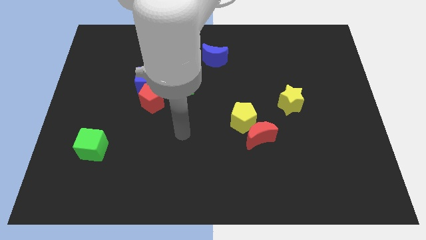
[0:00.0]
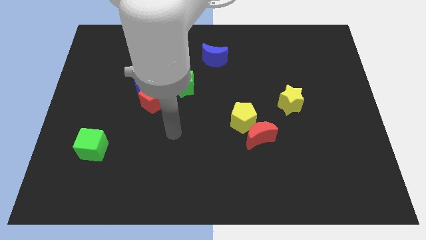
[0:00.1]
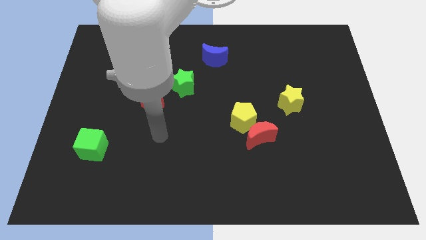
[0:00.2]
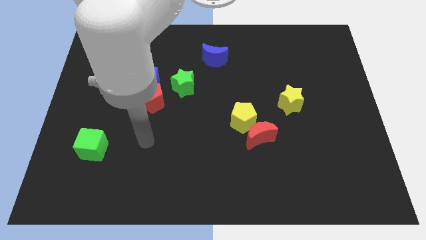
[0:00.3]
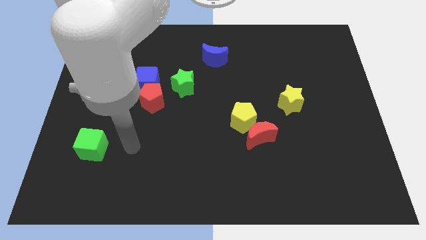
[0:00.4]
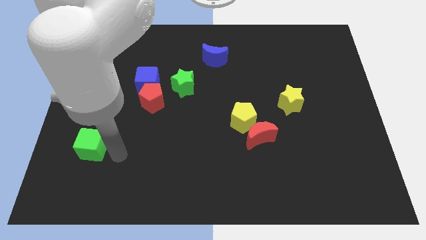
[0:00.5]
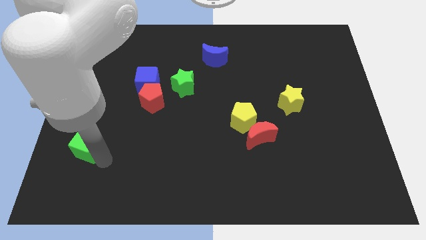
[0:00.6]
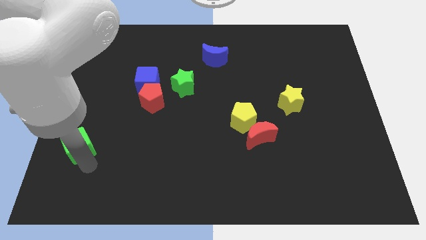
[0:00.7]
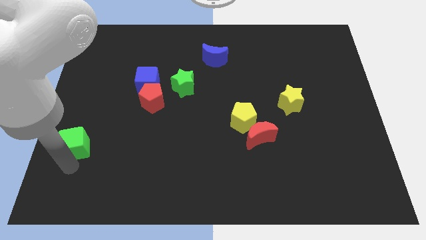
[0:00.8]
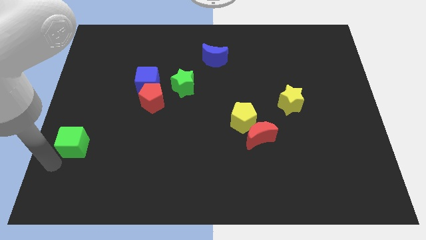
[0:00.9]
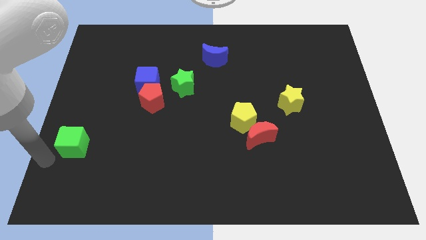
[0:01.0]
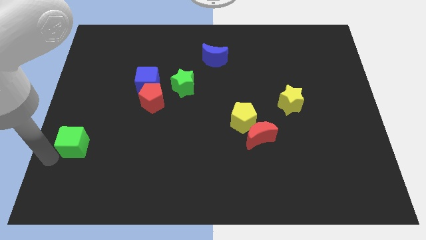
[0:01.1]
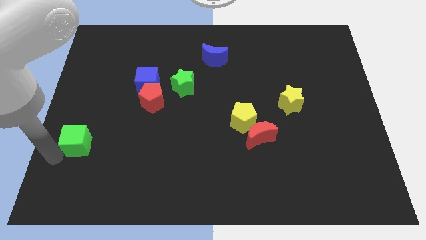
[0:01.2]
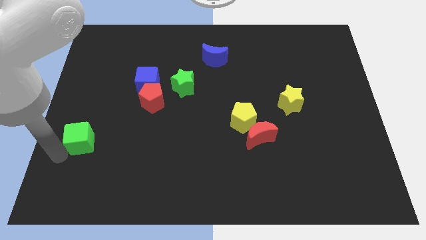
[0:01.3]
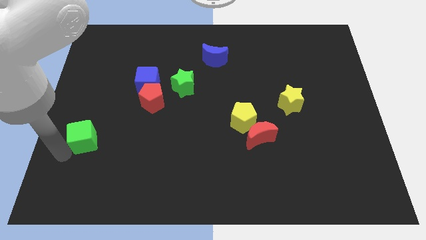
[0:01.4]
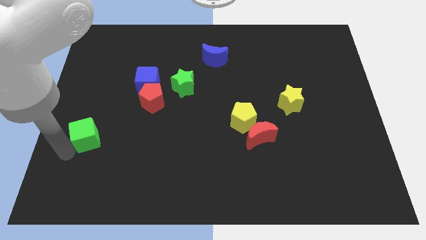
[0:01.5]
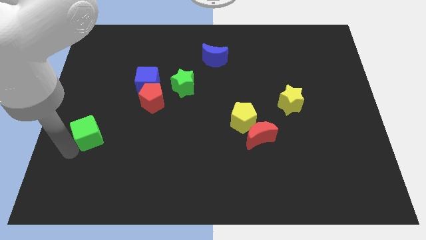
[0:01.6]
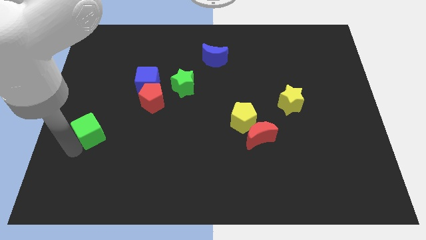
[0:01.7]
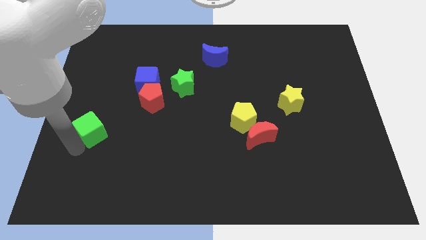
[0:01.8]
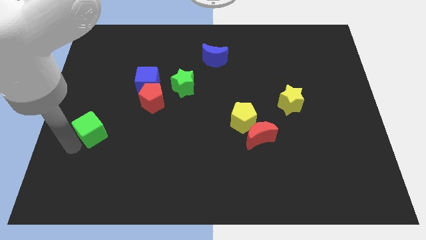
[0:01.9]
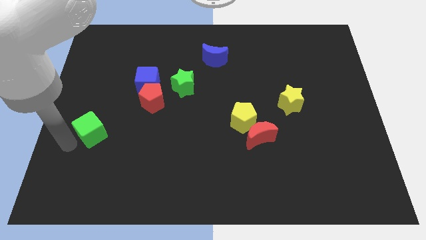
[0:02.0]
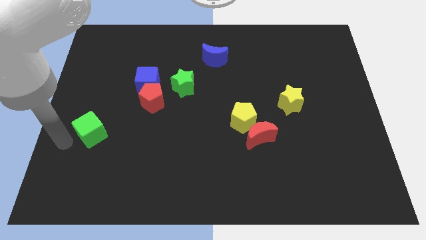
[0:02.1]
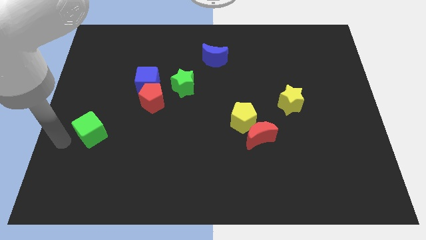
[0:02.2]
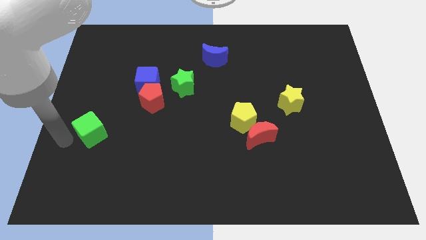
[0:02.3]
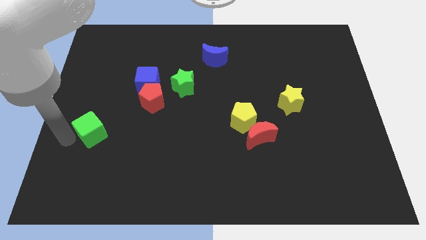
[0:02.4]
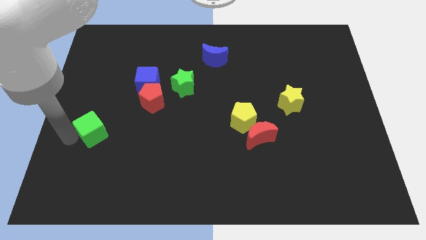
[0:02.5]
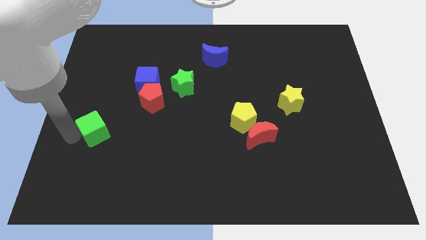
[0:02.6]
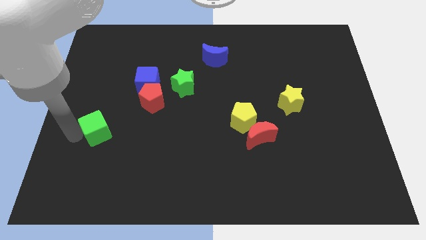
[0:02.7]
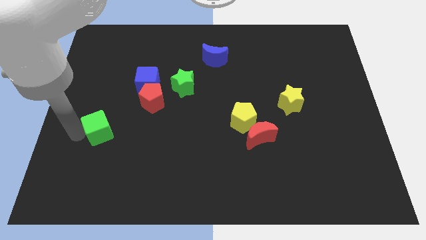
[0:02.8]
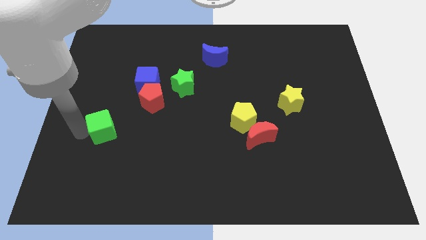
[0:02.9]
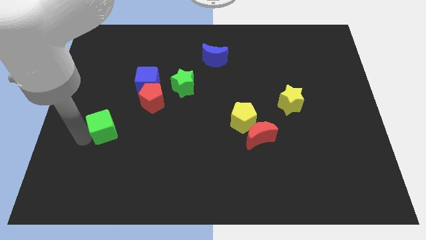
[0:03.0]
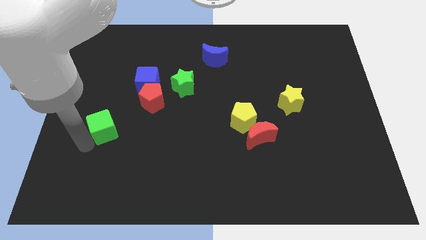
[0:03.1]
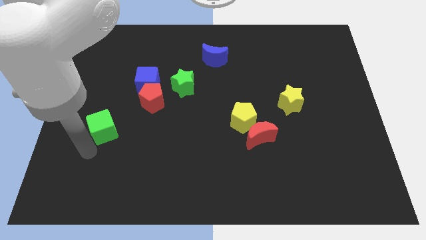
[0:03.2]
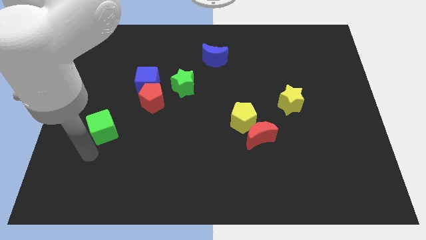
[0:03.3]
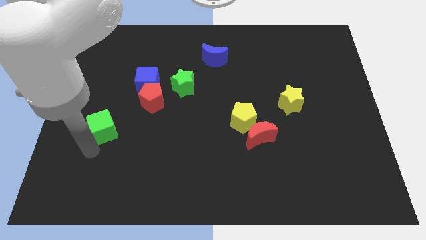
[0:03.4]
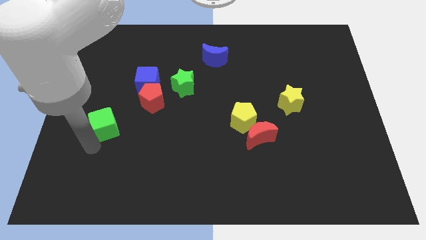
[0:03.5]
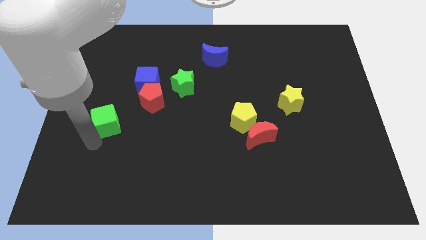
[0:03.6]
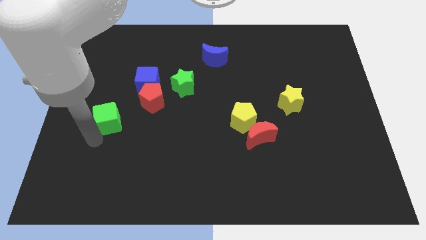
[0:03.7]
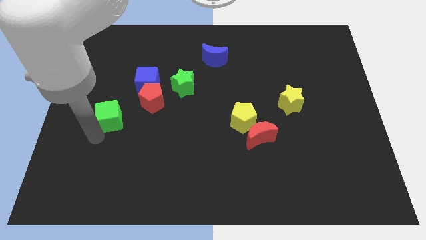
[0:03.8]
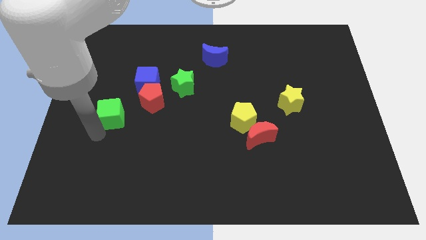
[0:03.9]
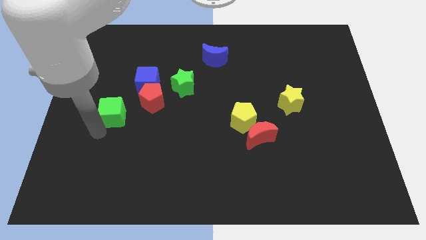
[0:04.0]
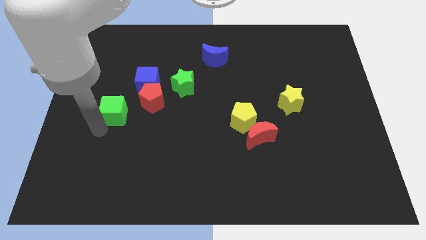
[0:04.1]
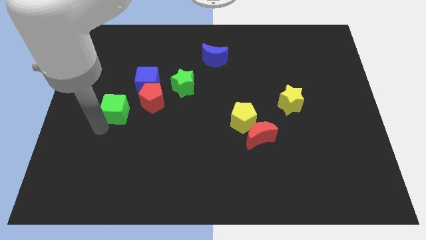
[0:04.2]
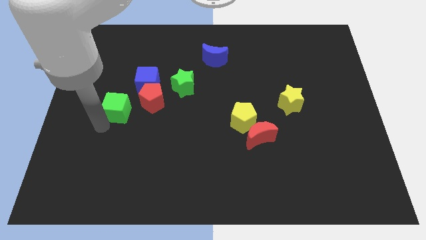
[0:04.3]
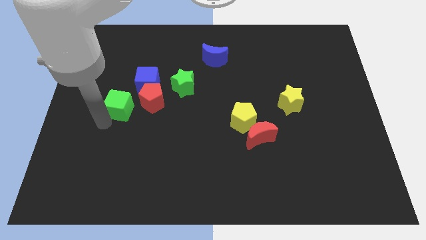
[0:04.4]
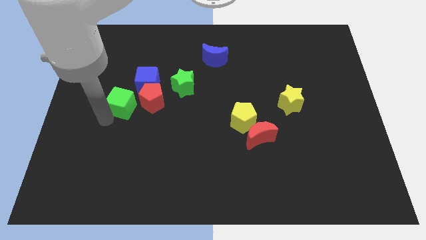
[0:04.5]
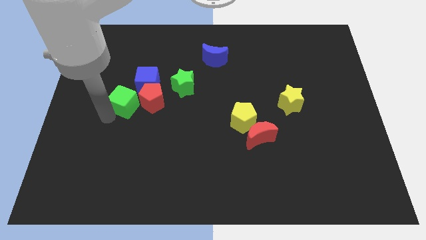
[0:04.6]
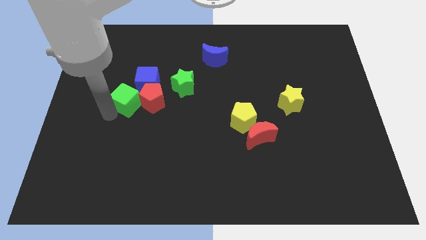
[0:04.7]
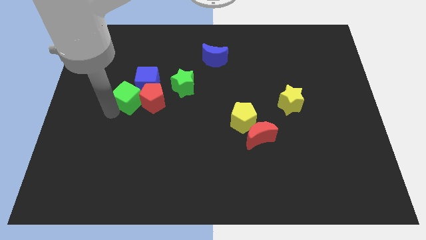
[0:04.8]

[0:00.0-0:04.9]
move the green cube to the left of the green star

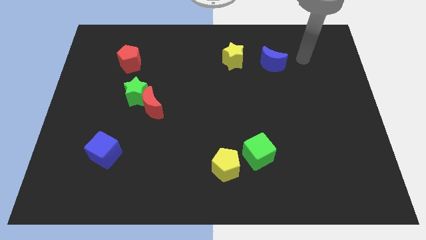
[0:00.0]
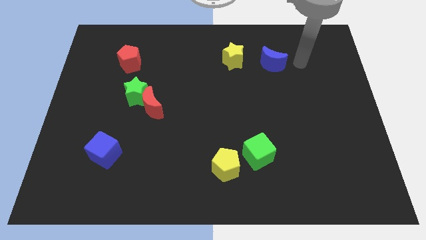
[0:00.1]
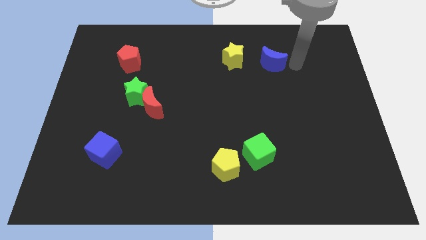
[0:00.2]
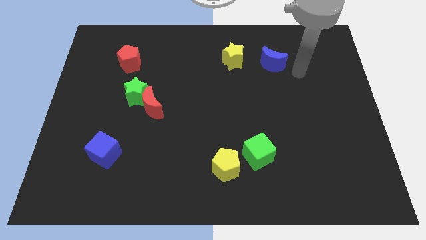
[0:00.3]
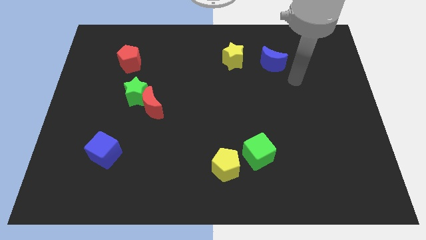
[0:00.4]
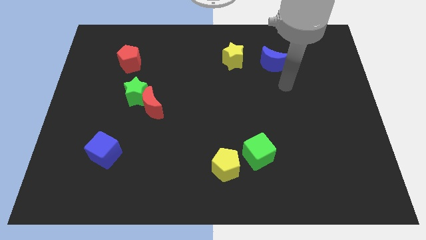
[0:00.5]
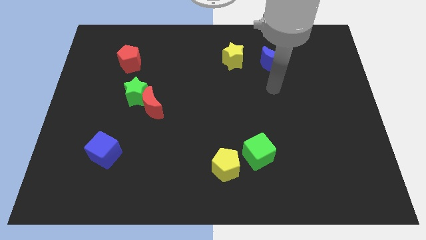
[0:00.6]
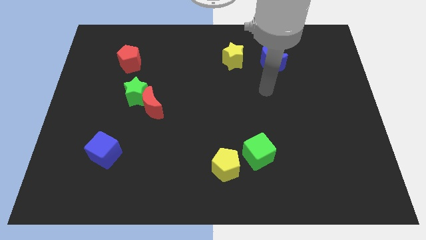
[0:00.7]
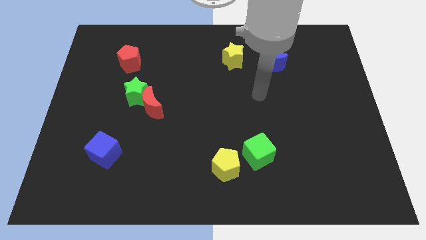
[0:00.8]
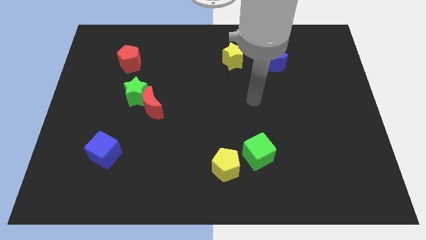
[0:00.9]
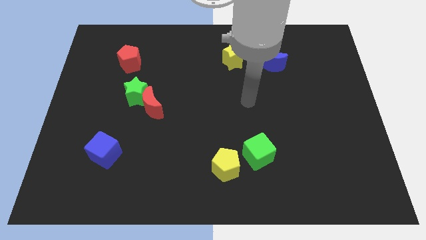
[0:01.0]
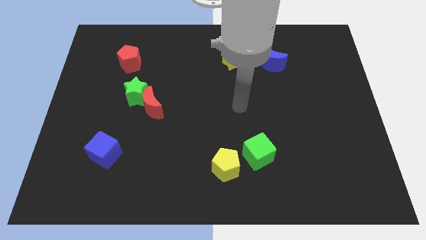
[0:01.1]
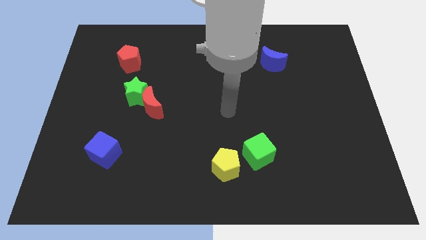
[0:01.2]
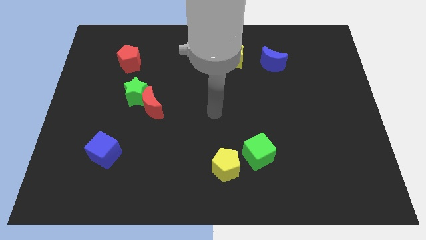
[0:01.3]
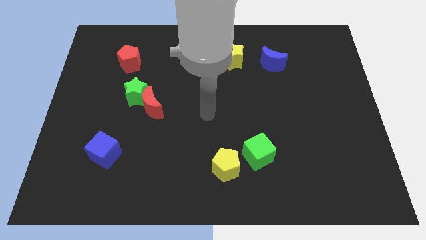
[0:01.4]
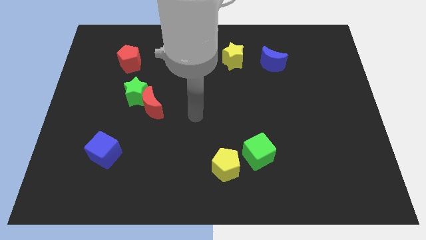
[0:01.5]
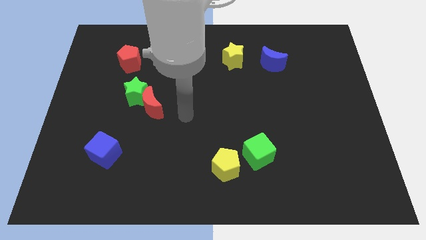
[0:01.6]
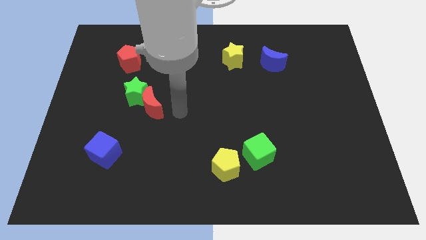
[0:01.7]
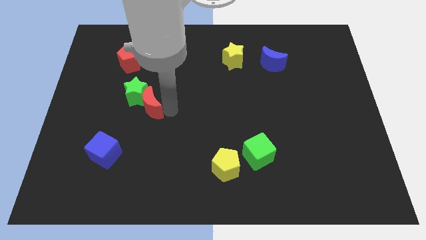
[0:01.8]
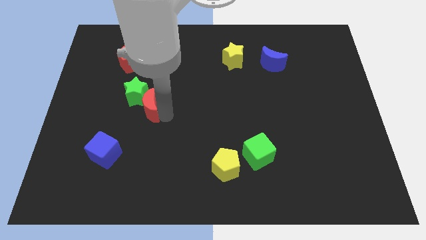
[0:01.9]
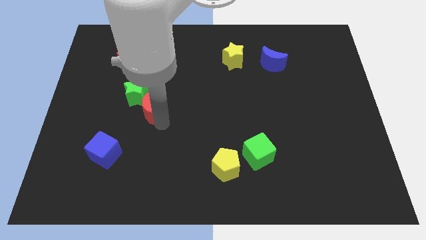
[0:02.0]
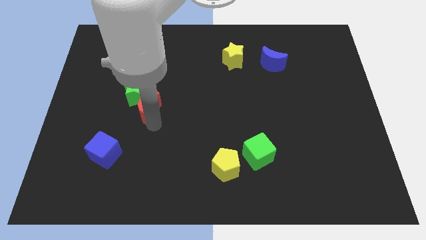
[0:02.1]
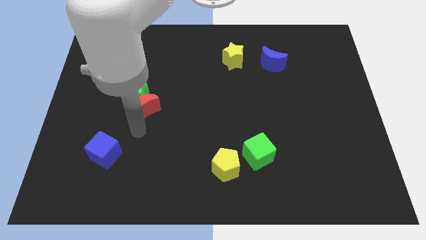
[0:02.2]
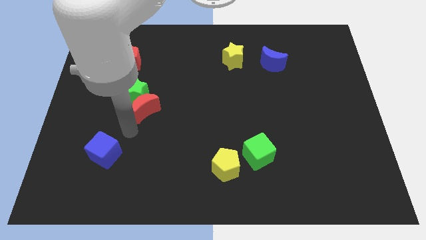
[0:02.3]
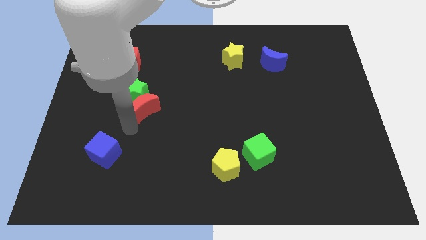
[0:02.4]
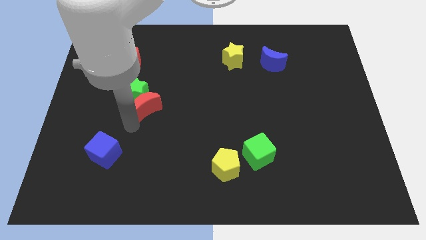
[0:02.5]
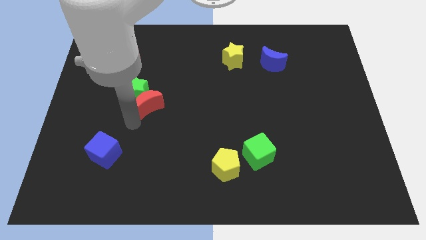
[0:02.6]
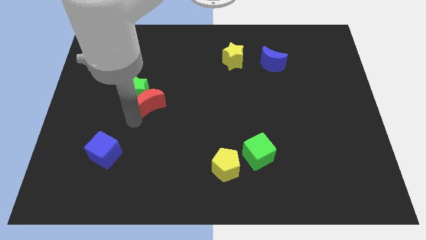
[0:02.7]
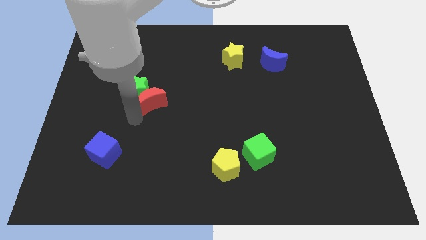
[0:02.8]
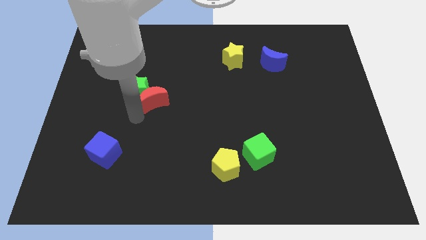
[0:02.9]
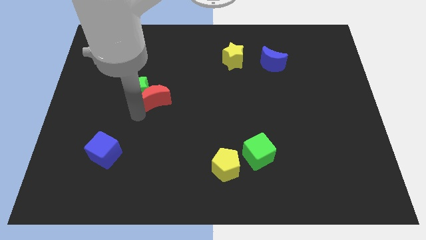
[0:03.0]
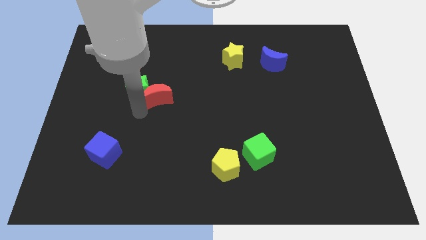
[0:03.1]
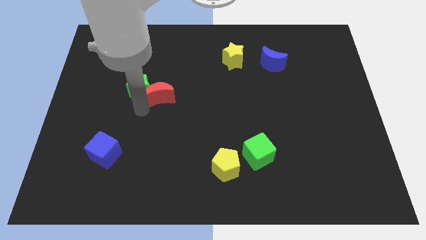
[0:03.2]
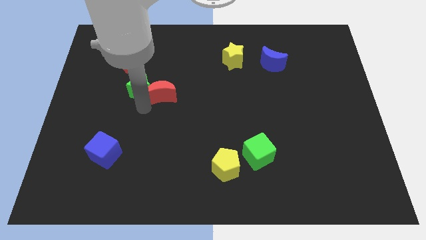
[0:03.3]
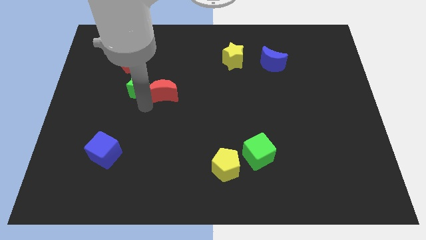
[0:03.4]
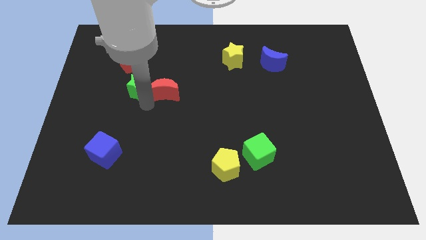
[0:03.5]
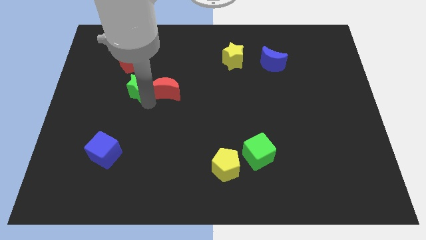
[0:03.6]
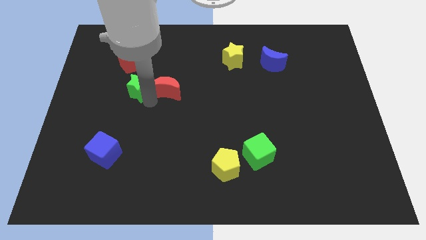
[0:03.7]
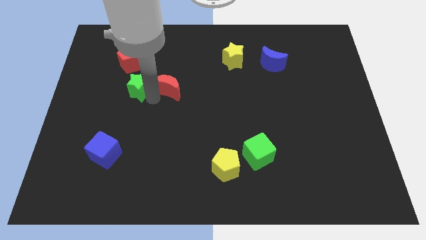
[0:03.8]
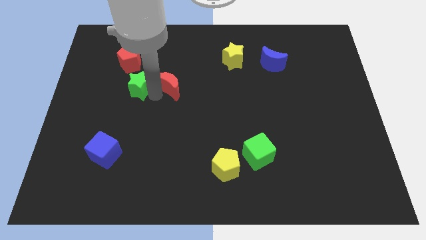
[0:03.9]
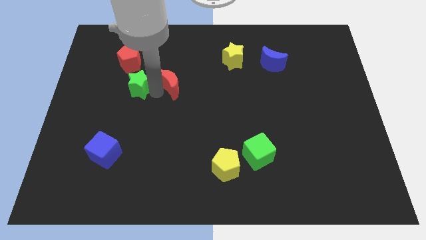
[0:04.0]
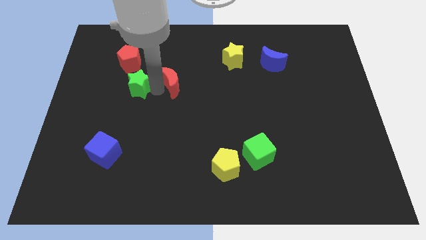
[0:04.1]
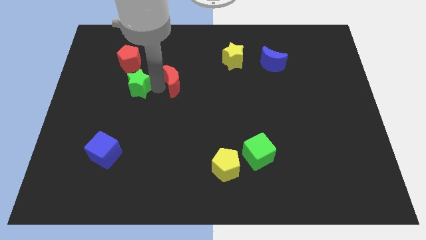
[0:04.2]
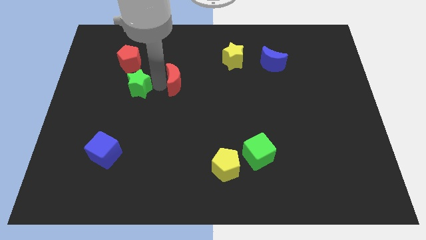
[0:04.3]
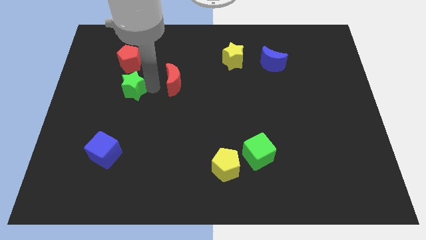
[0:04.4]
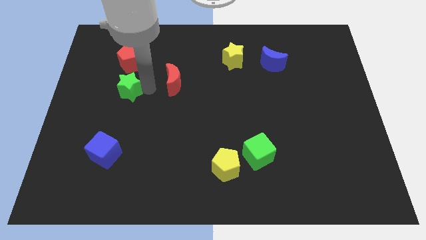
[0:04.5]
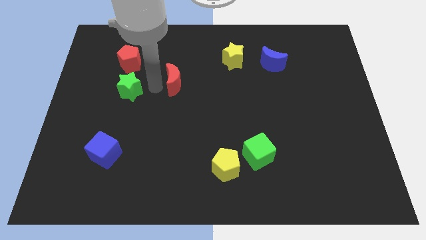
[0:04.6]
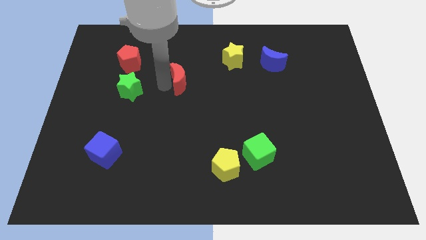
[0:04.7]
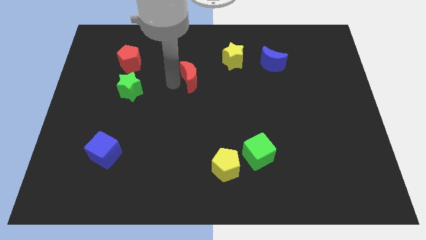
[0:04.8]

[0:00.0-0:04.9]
push the red moon to the bottom left side of the yellow star
